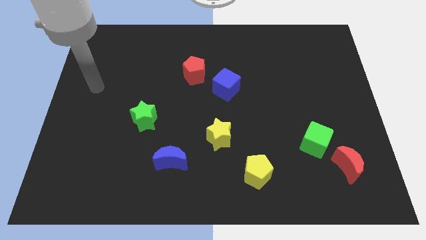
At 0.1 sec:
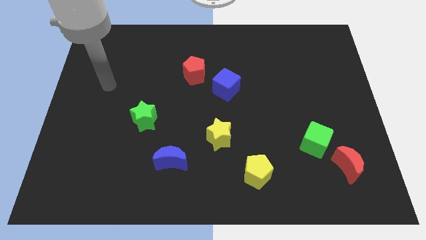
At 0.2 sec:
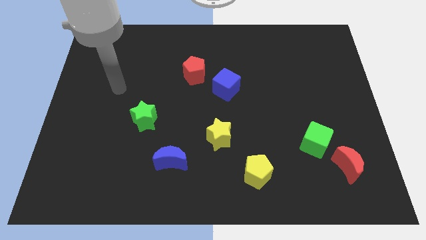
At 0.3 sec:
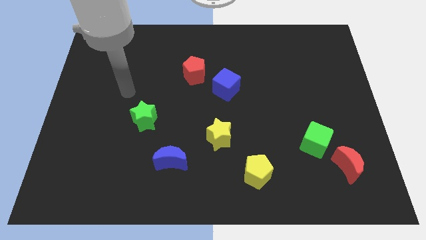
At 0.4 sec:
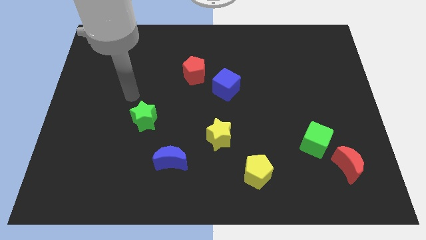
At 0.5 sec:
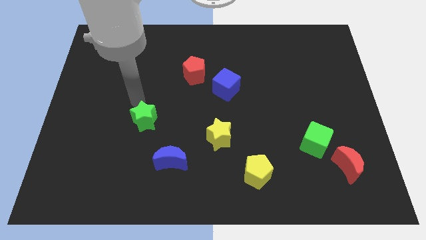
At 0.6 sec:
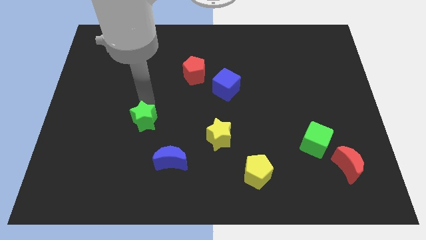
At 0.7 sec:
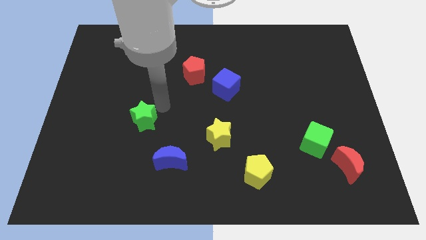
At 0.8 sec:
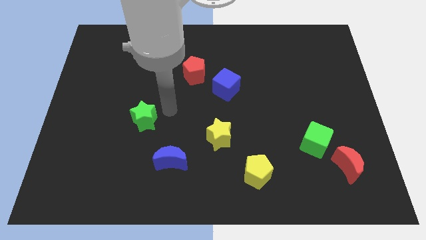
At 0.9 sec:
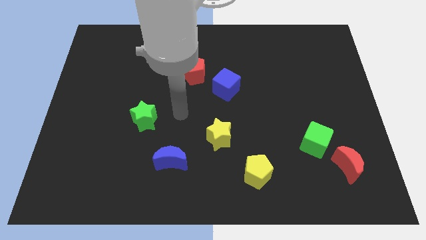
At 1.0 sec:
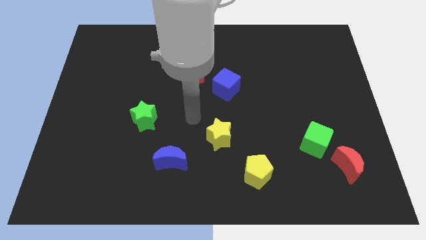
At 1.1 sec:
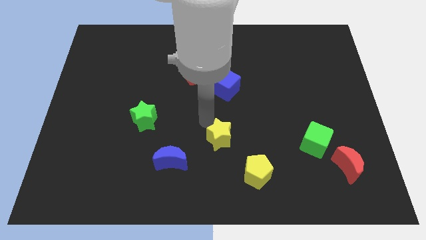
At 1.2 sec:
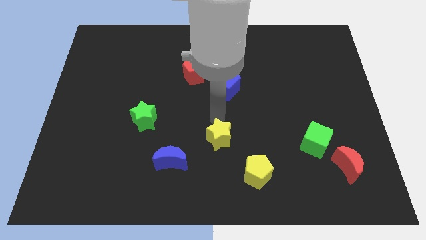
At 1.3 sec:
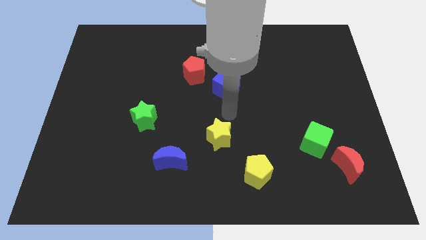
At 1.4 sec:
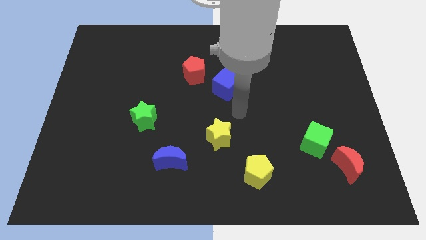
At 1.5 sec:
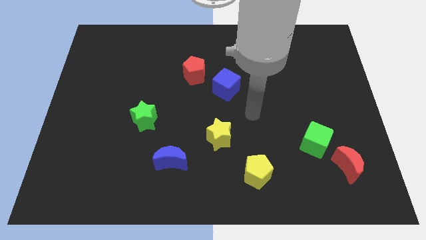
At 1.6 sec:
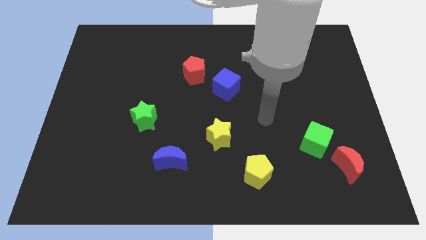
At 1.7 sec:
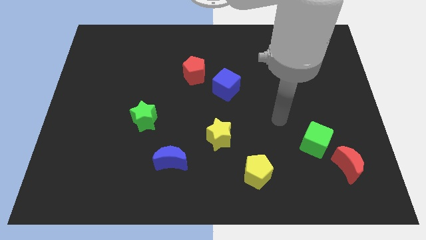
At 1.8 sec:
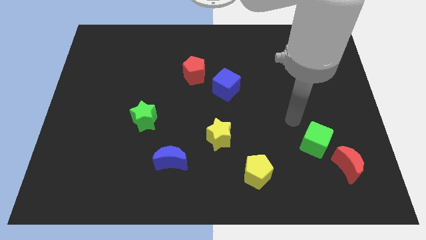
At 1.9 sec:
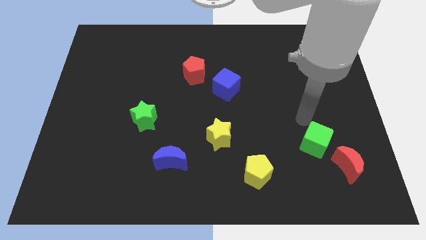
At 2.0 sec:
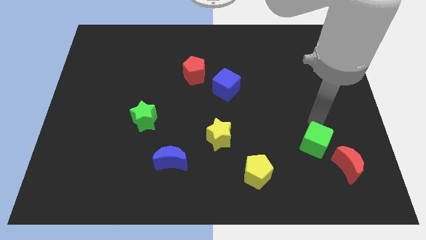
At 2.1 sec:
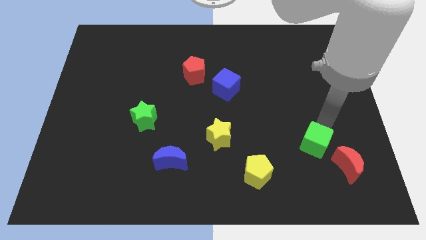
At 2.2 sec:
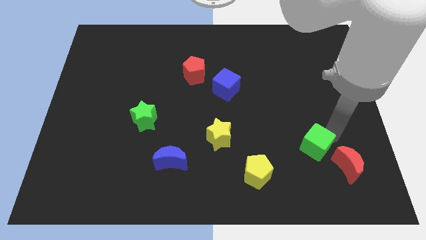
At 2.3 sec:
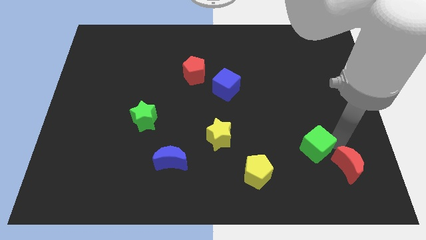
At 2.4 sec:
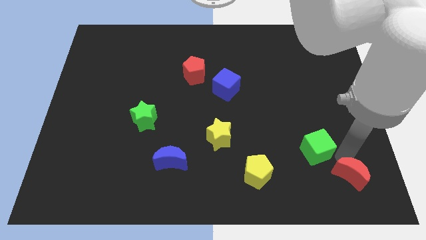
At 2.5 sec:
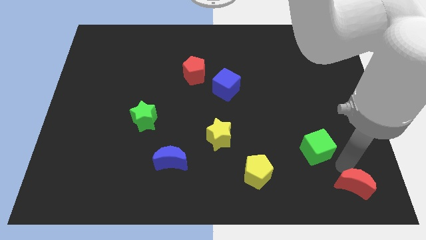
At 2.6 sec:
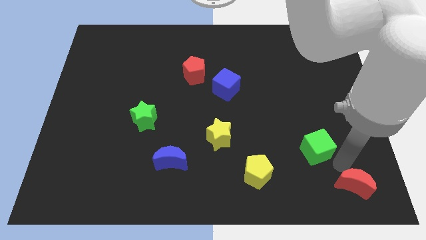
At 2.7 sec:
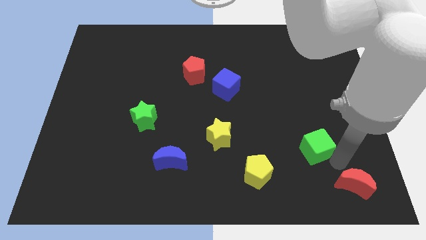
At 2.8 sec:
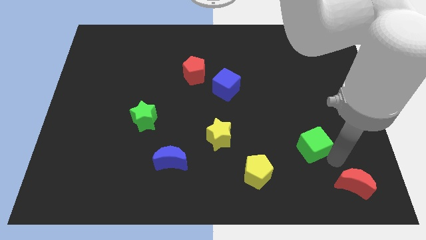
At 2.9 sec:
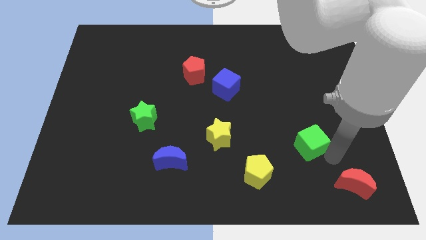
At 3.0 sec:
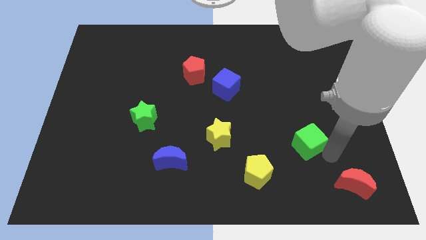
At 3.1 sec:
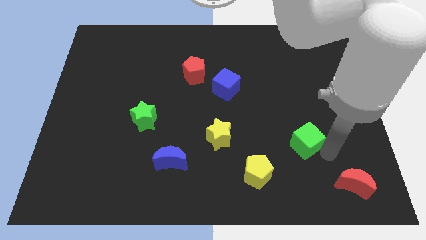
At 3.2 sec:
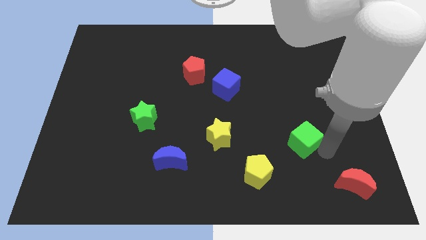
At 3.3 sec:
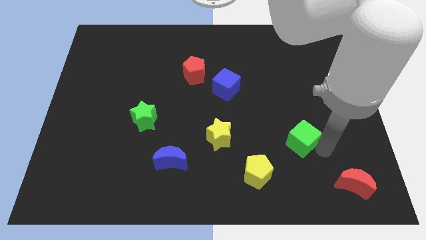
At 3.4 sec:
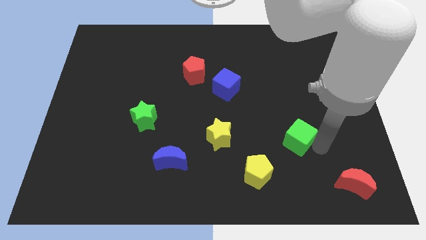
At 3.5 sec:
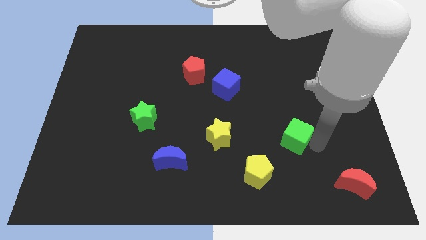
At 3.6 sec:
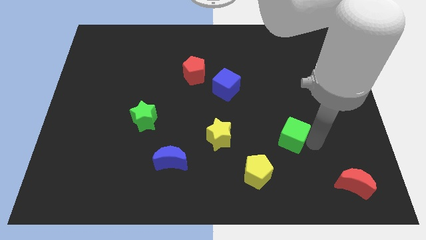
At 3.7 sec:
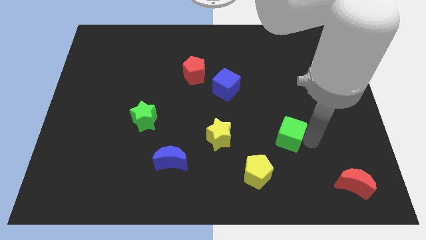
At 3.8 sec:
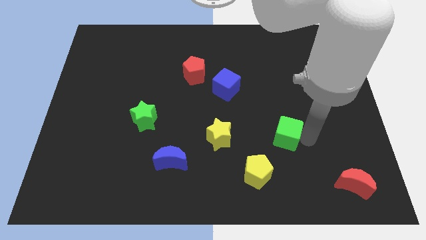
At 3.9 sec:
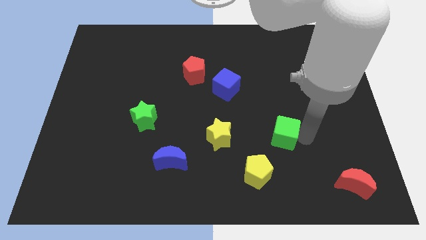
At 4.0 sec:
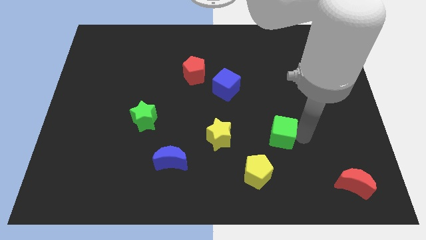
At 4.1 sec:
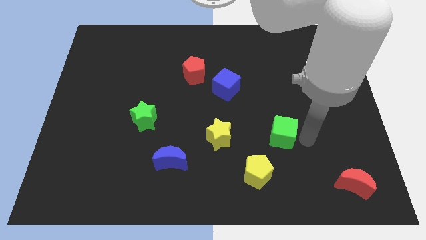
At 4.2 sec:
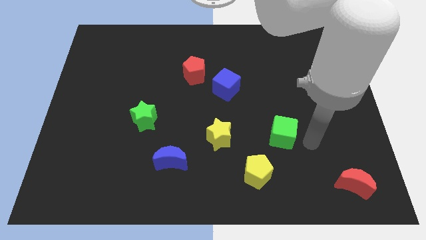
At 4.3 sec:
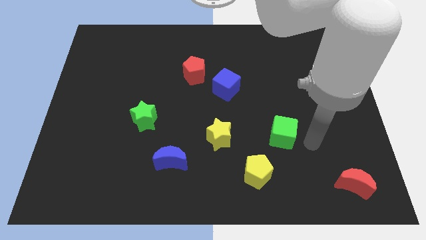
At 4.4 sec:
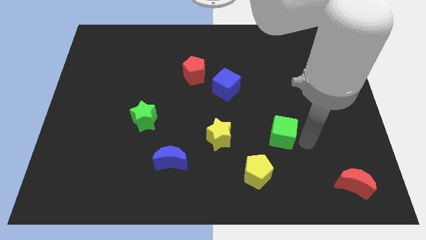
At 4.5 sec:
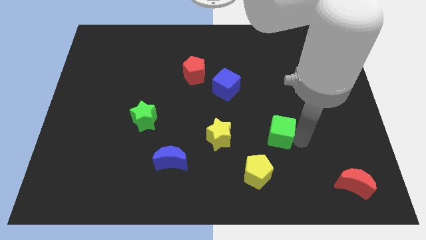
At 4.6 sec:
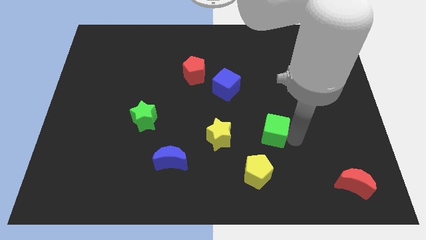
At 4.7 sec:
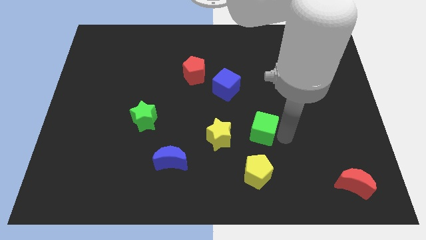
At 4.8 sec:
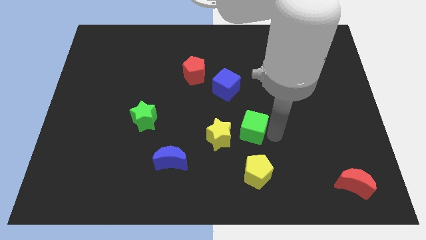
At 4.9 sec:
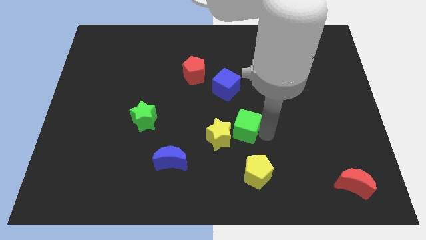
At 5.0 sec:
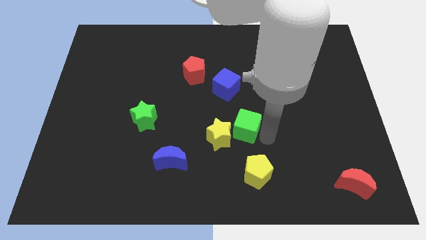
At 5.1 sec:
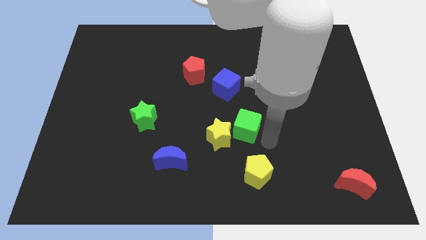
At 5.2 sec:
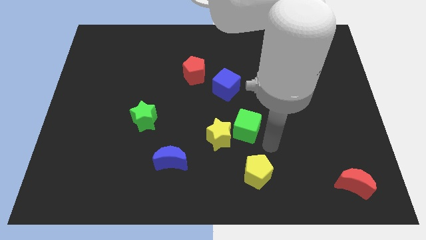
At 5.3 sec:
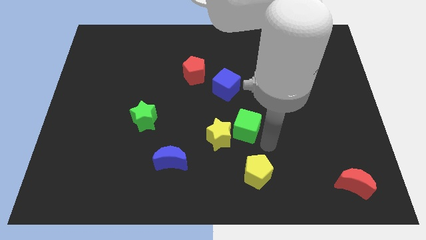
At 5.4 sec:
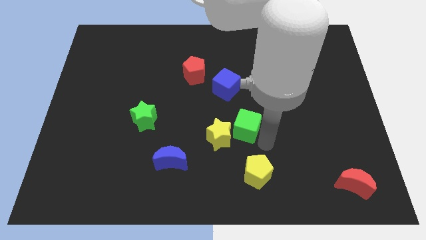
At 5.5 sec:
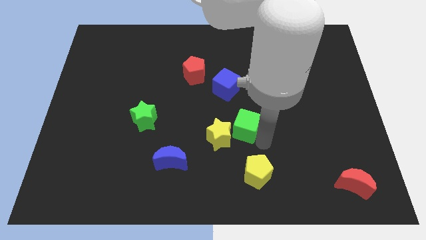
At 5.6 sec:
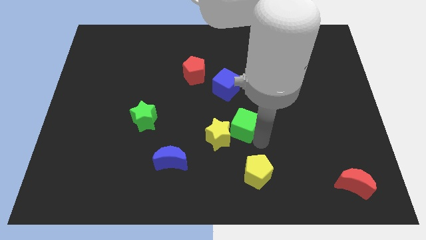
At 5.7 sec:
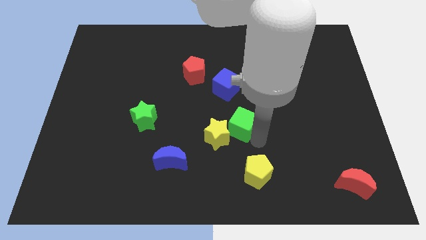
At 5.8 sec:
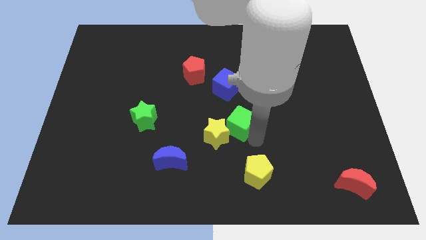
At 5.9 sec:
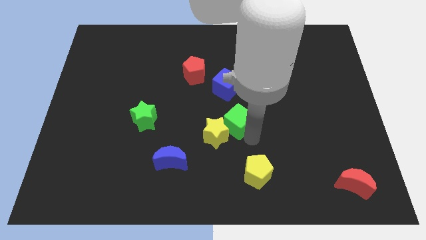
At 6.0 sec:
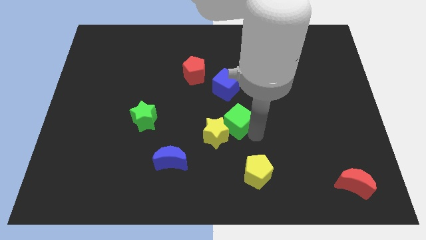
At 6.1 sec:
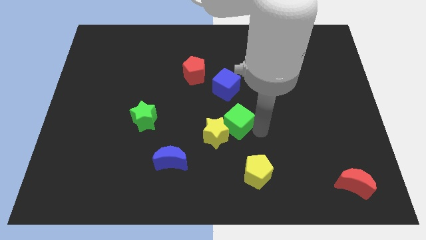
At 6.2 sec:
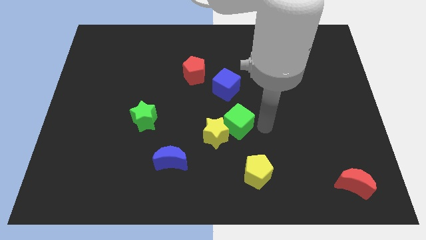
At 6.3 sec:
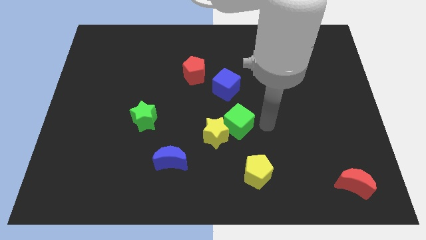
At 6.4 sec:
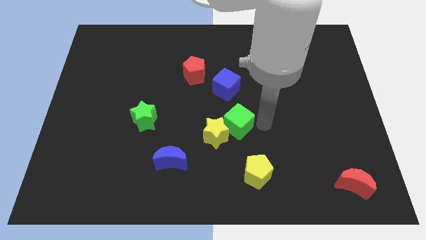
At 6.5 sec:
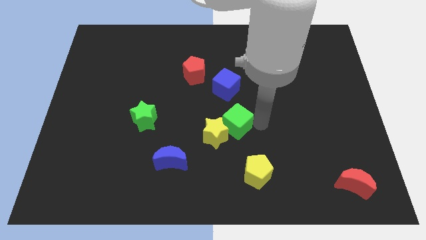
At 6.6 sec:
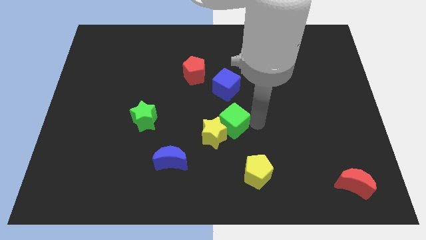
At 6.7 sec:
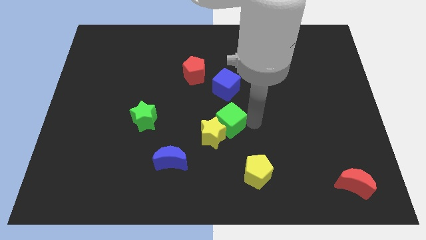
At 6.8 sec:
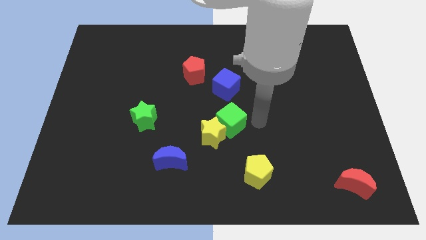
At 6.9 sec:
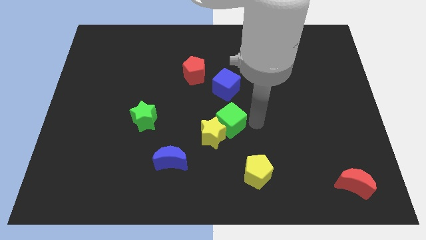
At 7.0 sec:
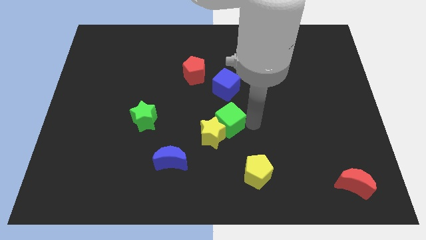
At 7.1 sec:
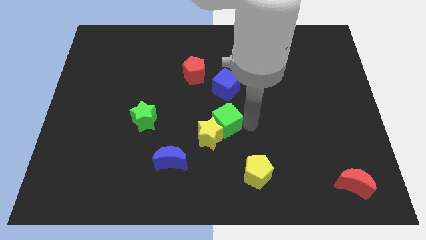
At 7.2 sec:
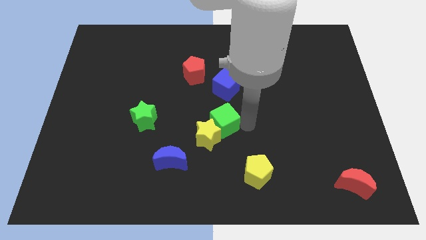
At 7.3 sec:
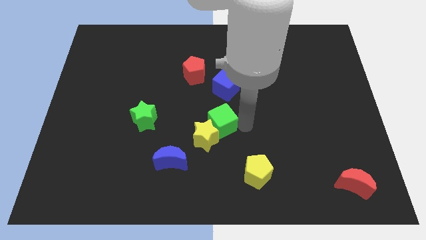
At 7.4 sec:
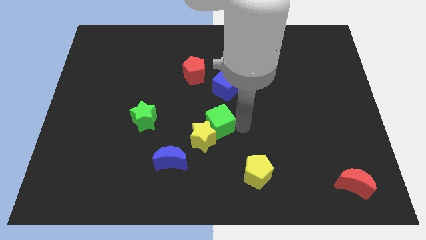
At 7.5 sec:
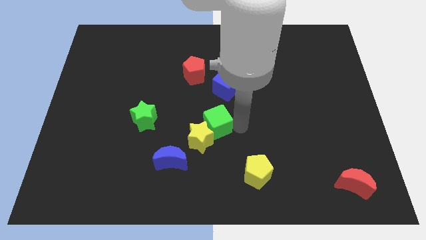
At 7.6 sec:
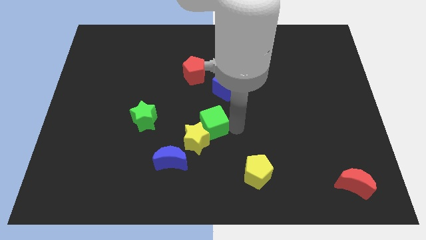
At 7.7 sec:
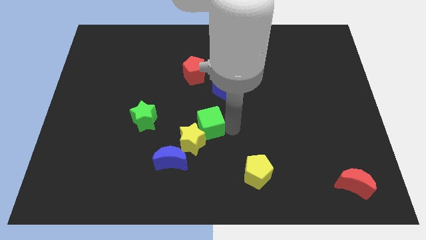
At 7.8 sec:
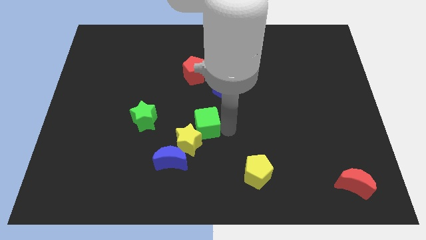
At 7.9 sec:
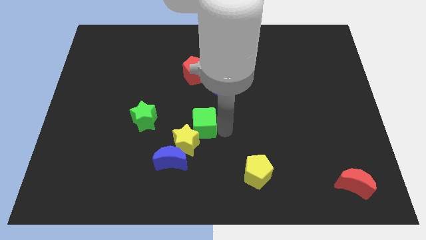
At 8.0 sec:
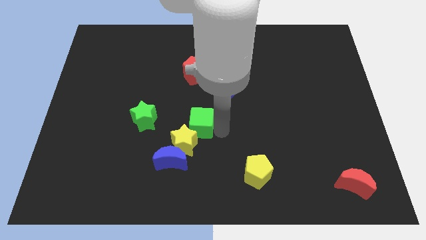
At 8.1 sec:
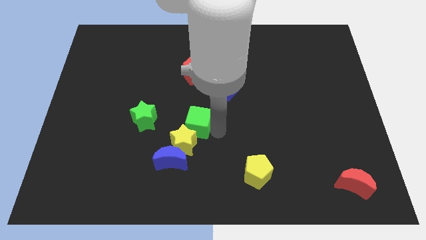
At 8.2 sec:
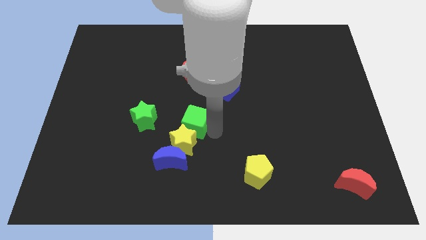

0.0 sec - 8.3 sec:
put the green cube to the top of the blue moon
